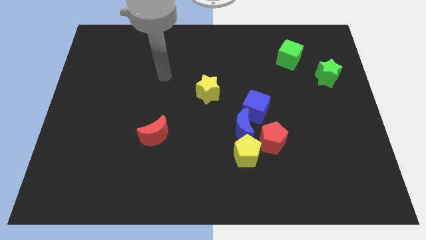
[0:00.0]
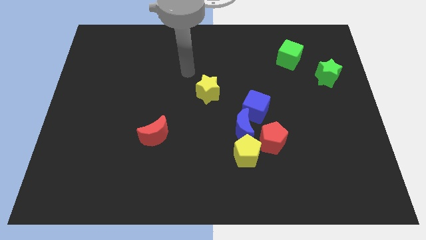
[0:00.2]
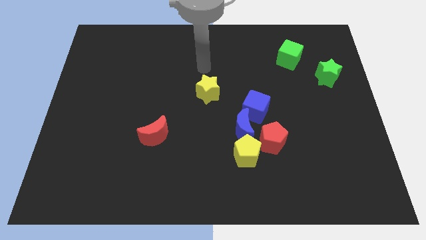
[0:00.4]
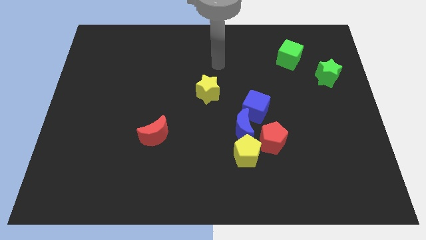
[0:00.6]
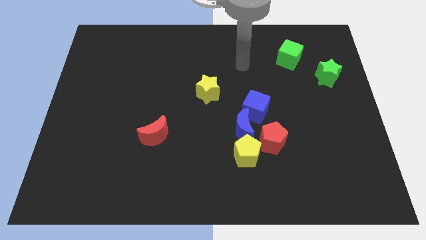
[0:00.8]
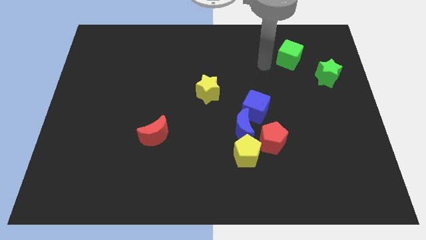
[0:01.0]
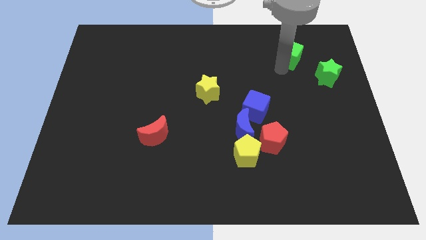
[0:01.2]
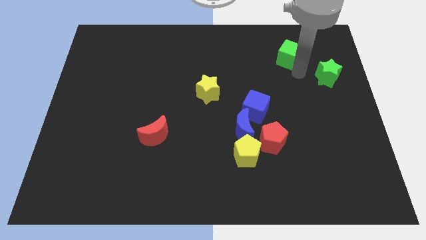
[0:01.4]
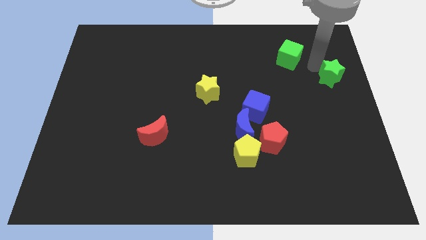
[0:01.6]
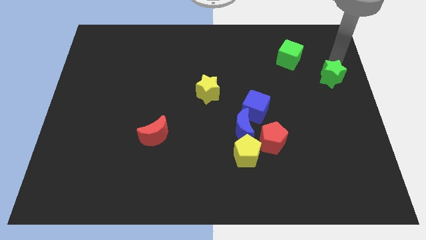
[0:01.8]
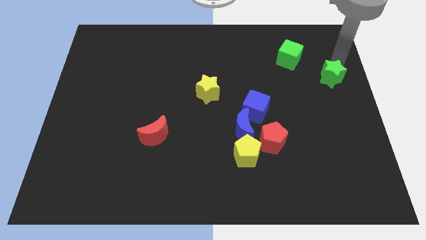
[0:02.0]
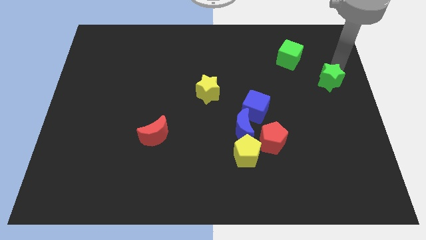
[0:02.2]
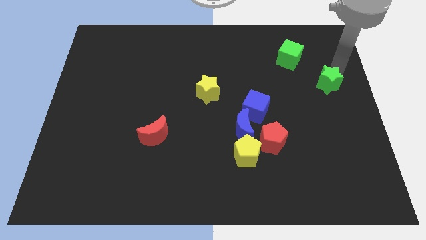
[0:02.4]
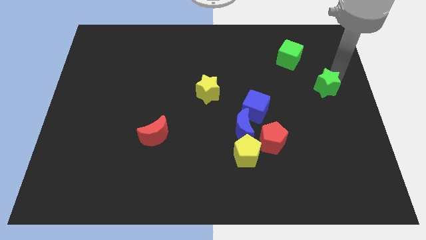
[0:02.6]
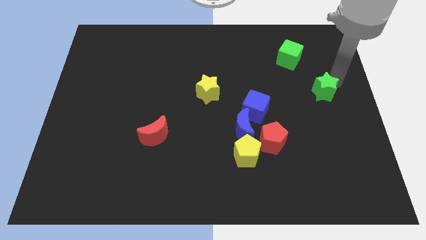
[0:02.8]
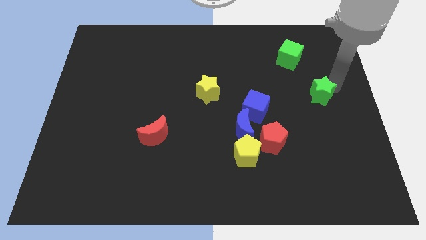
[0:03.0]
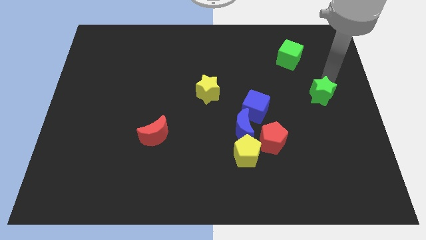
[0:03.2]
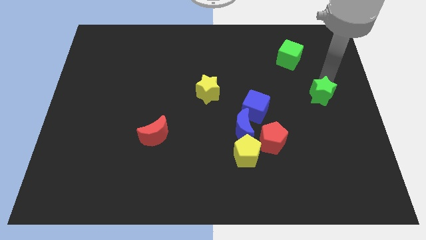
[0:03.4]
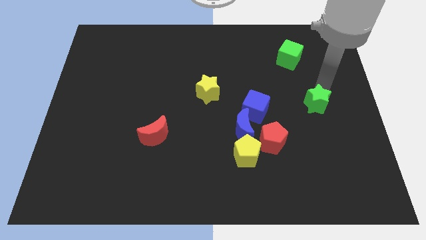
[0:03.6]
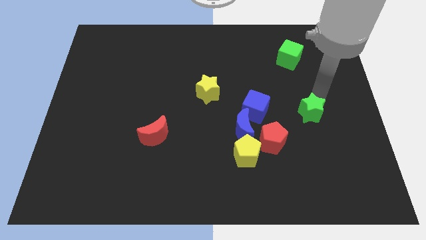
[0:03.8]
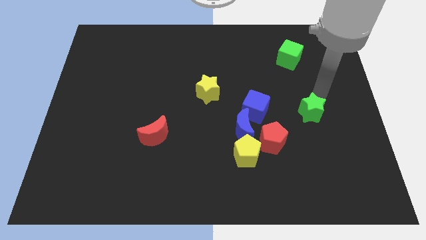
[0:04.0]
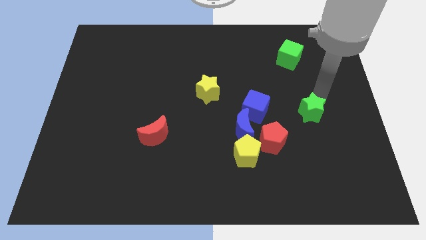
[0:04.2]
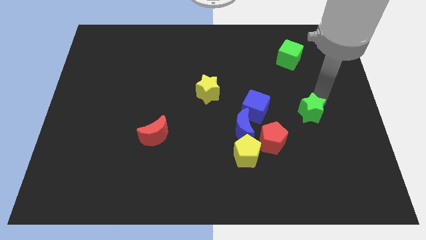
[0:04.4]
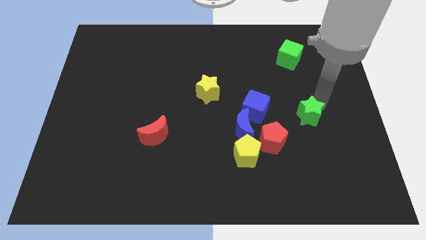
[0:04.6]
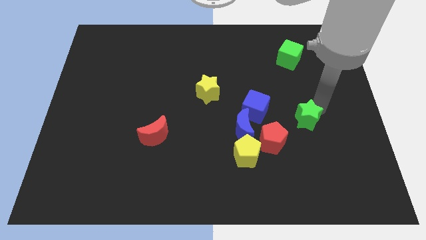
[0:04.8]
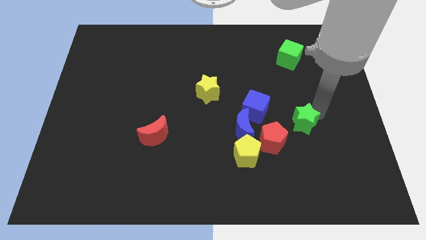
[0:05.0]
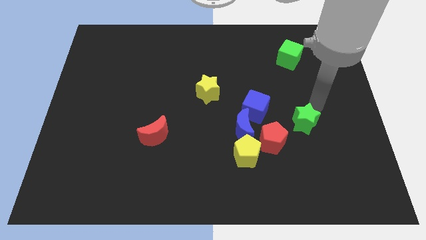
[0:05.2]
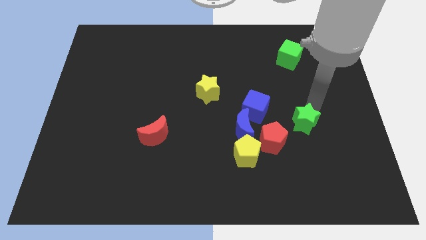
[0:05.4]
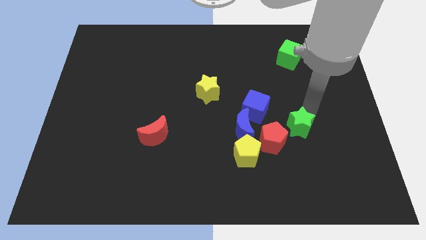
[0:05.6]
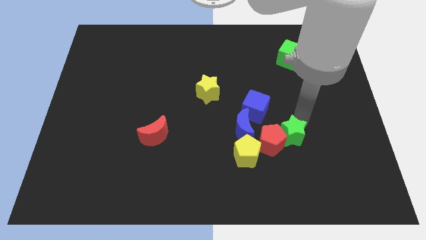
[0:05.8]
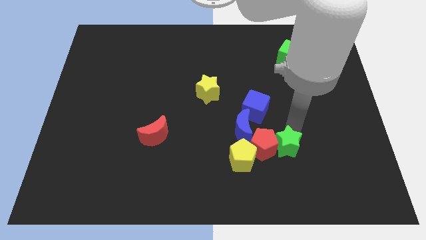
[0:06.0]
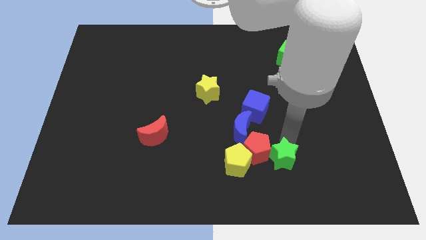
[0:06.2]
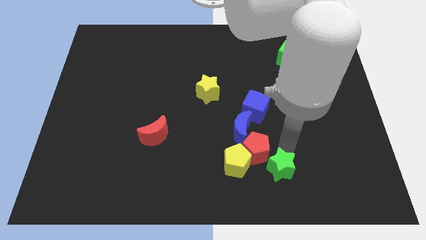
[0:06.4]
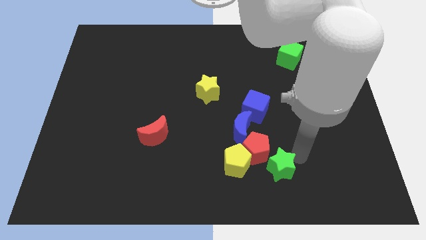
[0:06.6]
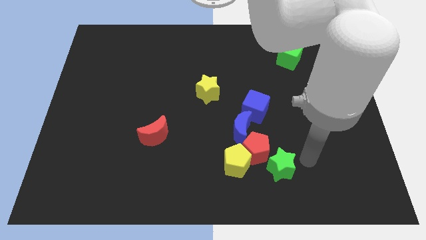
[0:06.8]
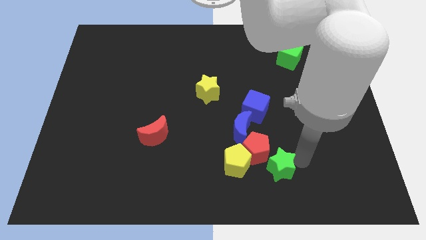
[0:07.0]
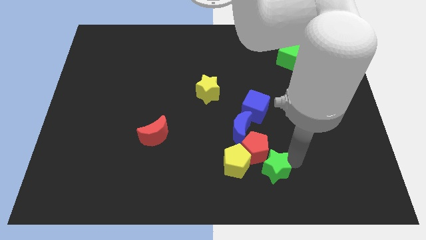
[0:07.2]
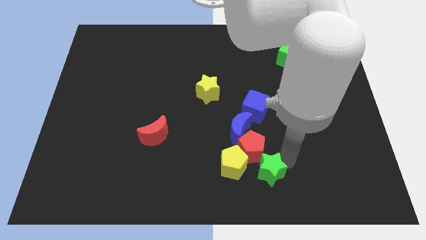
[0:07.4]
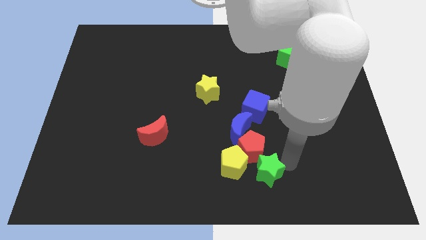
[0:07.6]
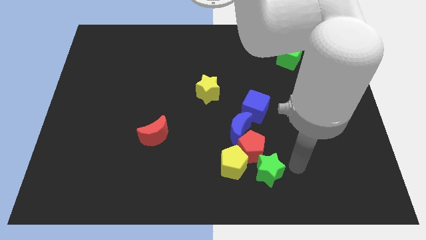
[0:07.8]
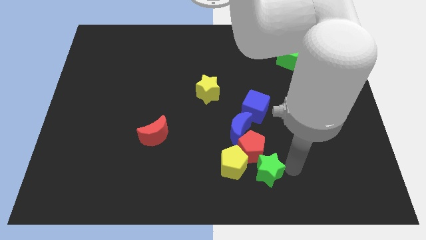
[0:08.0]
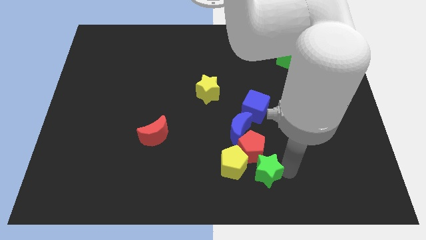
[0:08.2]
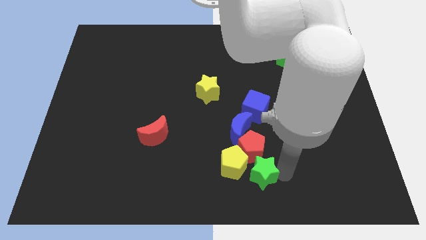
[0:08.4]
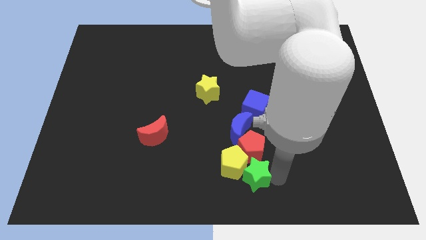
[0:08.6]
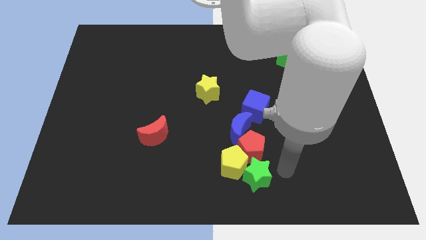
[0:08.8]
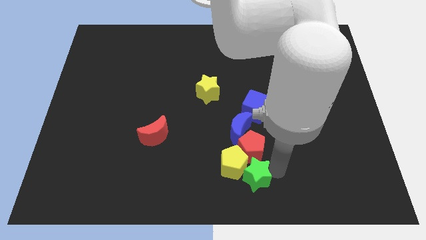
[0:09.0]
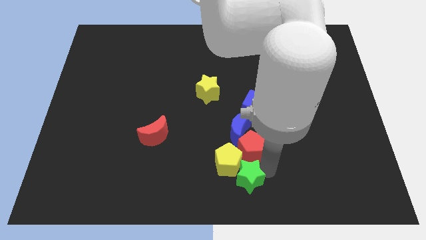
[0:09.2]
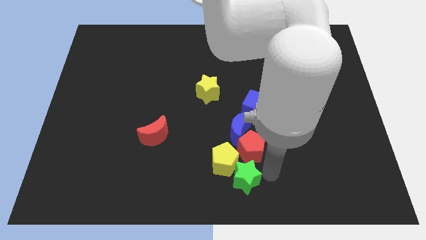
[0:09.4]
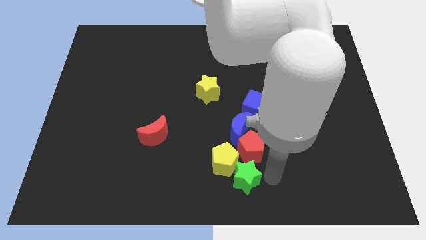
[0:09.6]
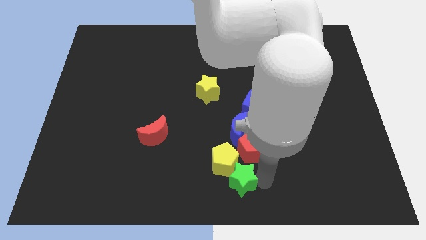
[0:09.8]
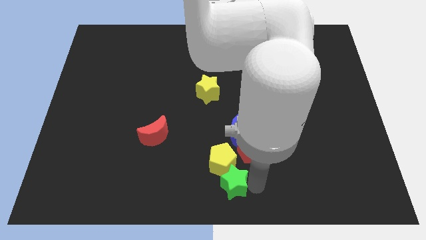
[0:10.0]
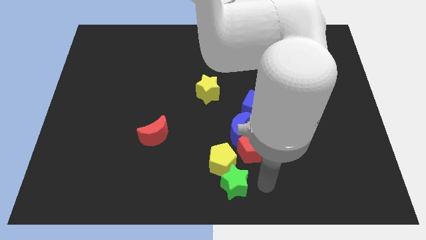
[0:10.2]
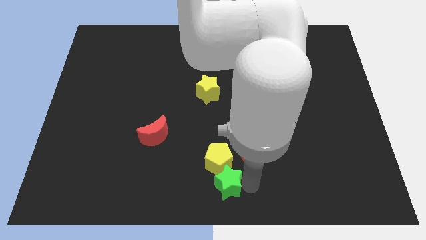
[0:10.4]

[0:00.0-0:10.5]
slide the green star diagonally down and to the left of the yellow pentagon

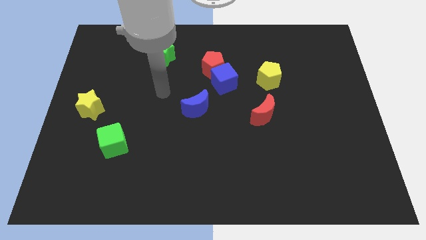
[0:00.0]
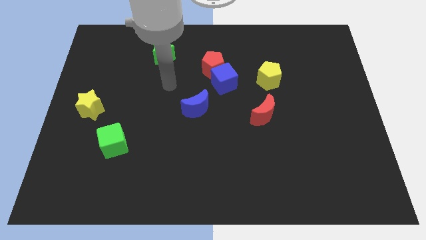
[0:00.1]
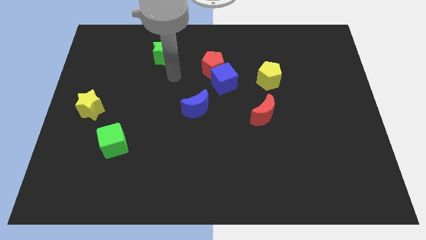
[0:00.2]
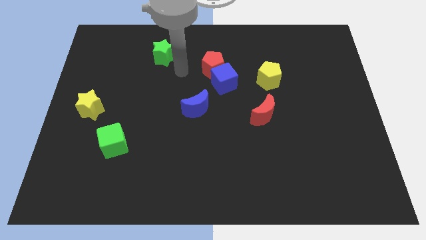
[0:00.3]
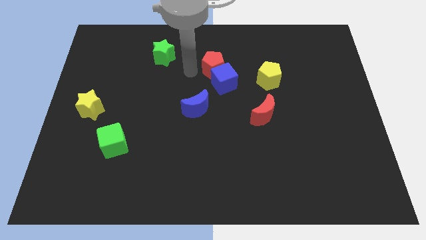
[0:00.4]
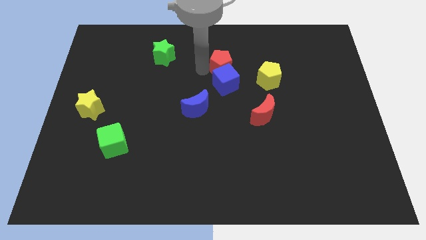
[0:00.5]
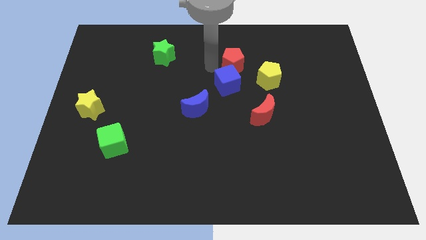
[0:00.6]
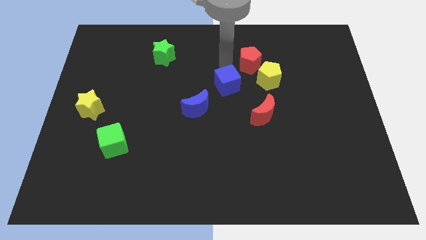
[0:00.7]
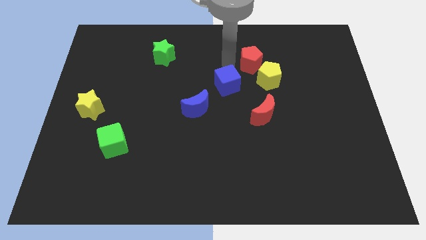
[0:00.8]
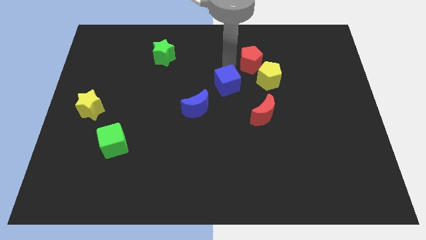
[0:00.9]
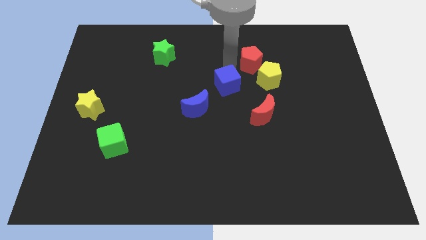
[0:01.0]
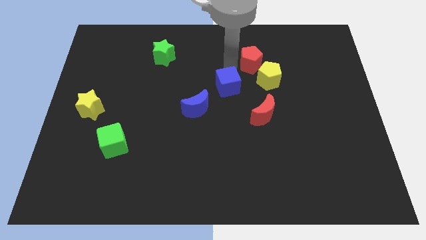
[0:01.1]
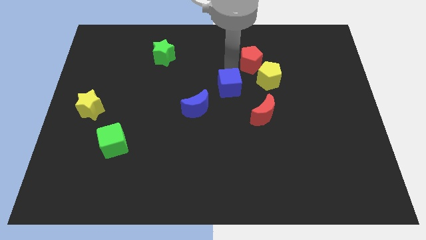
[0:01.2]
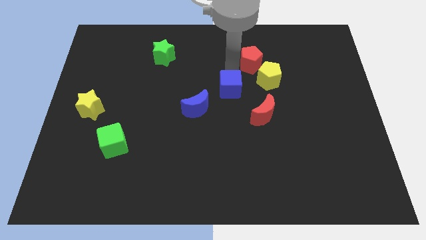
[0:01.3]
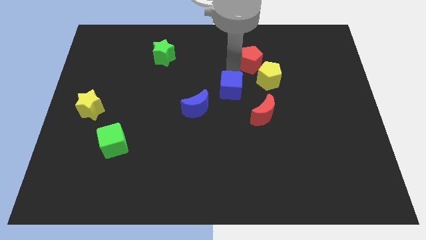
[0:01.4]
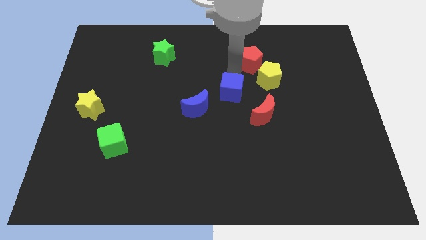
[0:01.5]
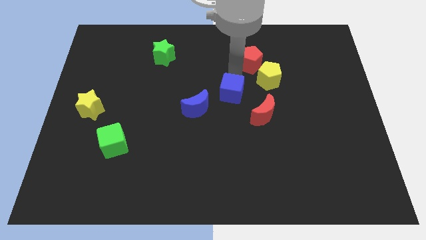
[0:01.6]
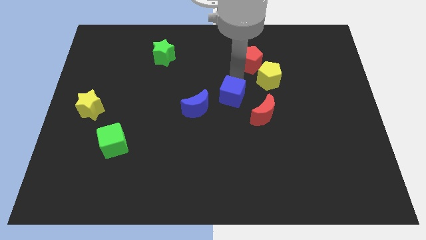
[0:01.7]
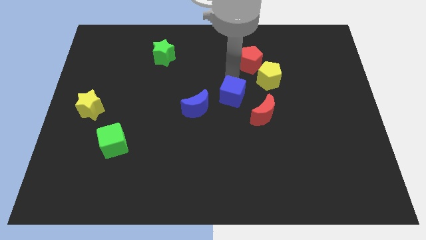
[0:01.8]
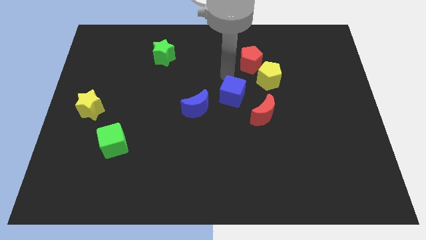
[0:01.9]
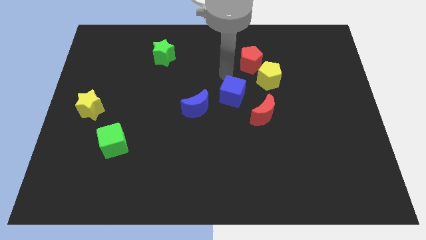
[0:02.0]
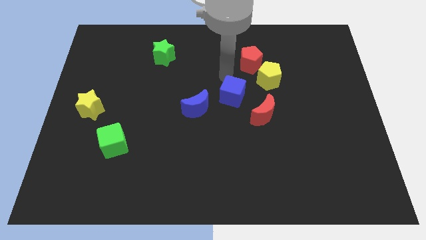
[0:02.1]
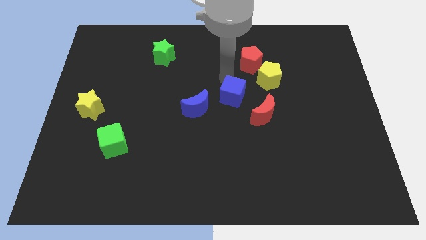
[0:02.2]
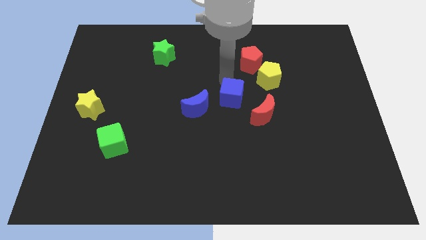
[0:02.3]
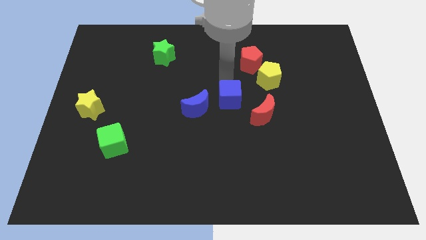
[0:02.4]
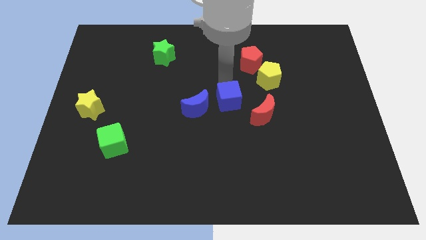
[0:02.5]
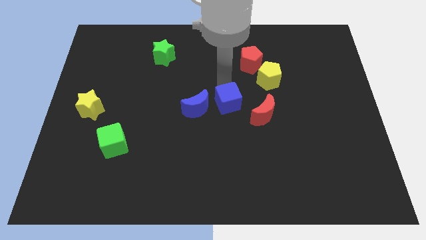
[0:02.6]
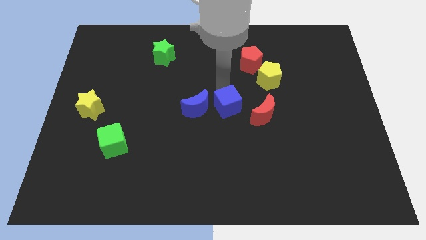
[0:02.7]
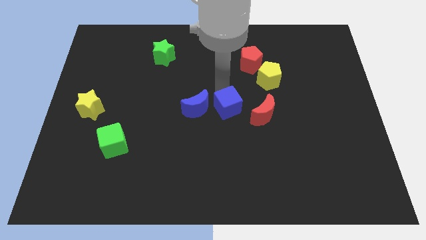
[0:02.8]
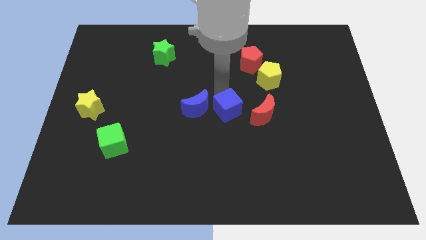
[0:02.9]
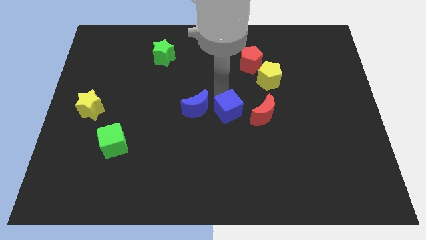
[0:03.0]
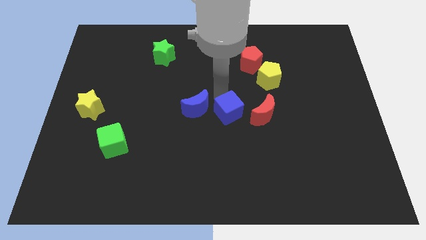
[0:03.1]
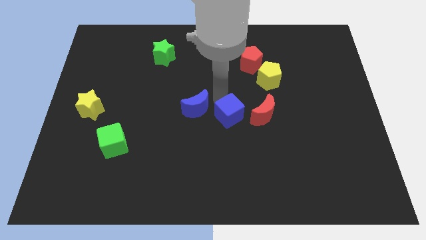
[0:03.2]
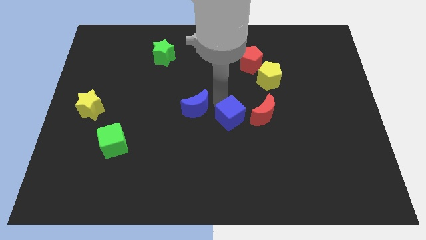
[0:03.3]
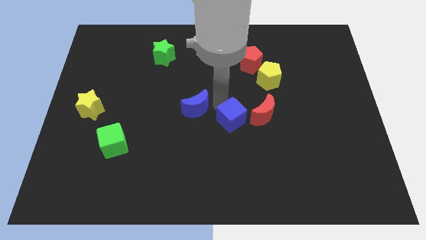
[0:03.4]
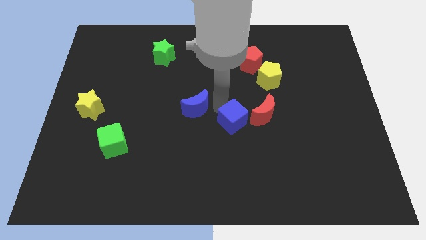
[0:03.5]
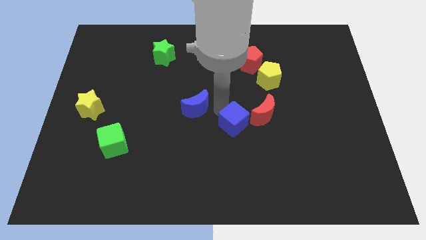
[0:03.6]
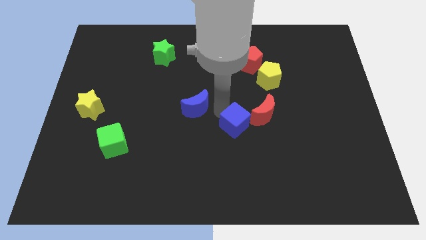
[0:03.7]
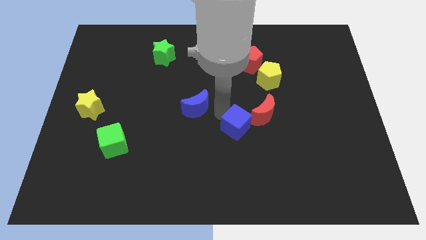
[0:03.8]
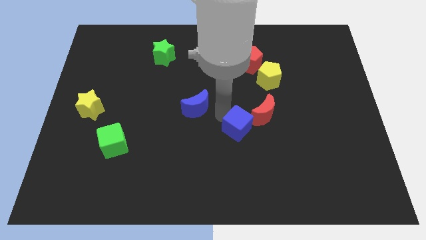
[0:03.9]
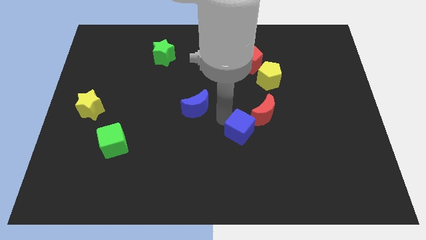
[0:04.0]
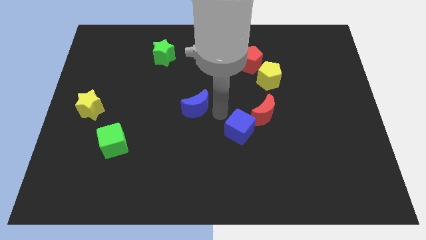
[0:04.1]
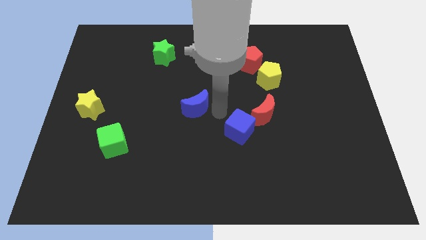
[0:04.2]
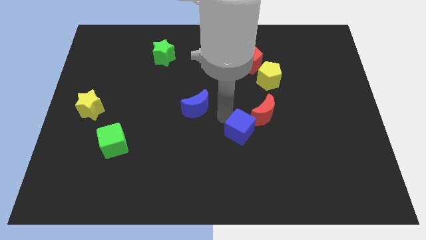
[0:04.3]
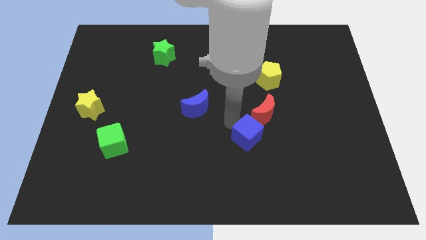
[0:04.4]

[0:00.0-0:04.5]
slide the blue cube to the bottom side of the red moon
